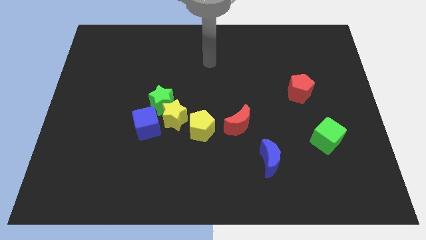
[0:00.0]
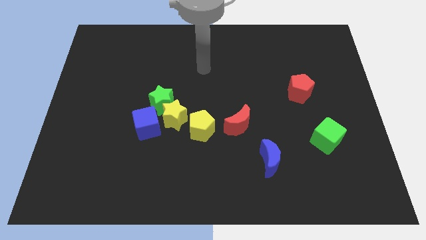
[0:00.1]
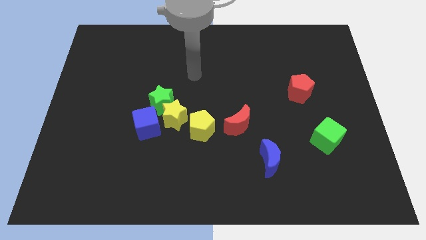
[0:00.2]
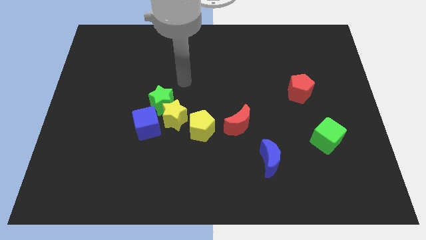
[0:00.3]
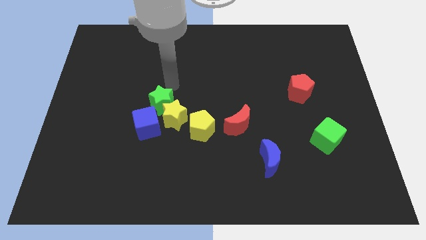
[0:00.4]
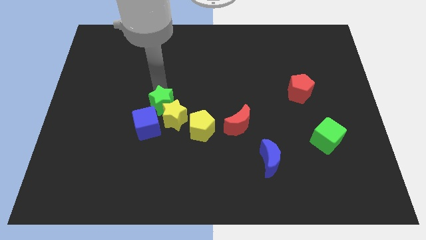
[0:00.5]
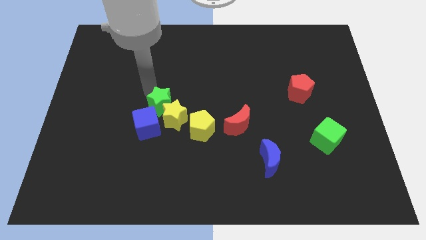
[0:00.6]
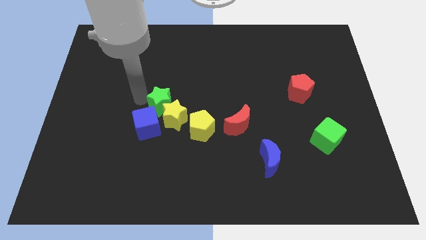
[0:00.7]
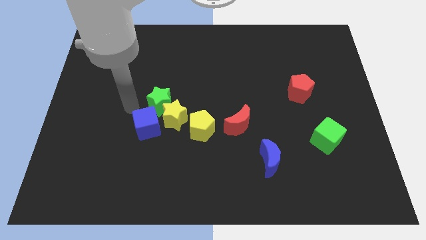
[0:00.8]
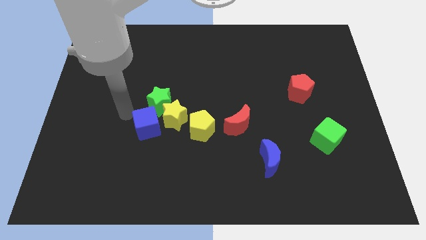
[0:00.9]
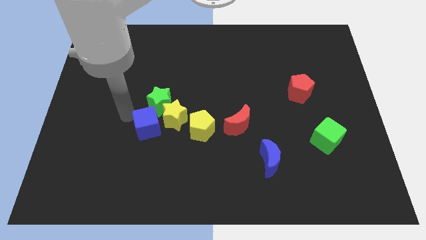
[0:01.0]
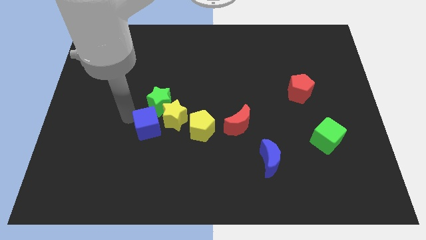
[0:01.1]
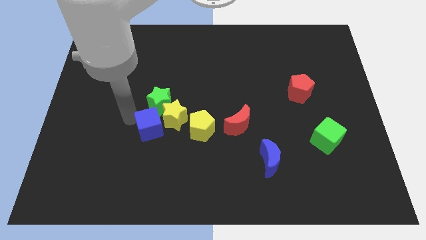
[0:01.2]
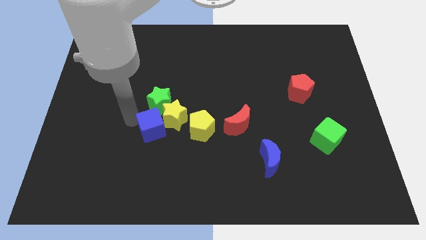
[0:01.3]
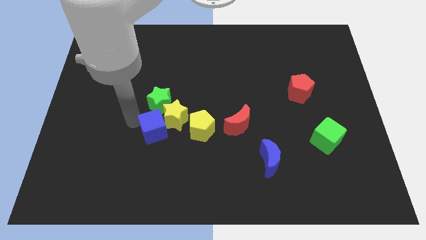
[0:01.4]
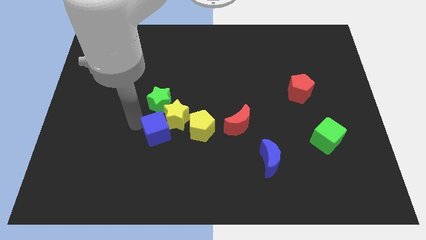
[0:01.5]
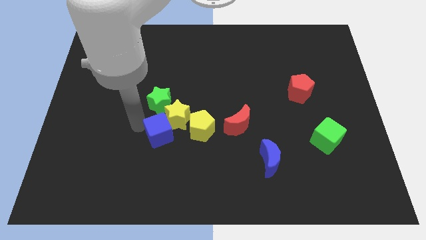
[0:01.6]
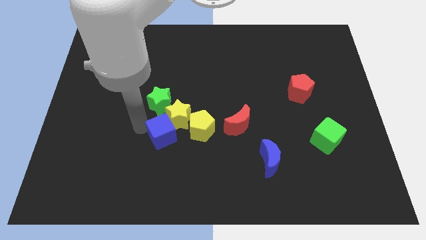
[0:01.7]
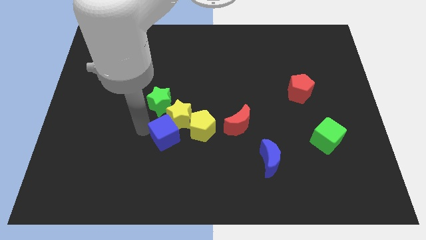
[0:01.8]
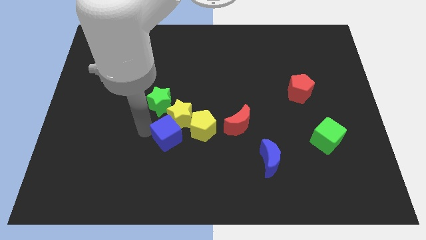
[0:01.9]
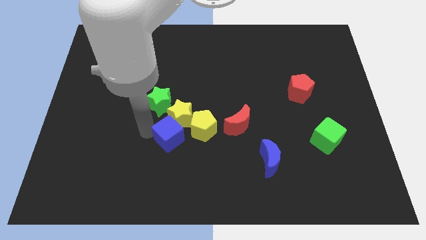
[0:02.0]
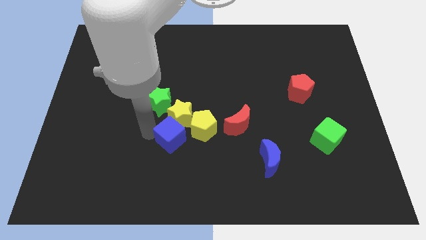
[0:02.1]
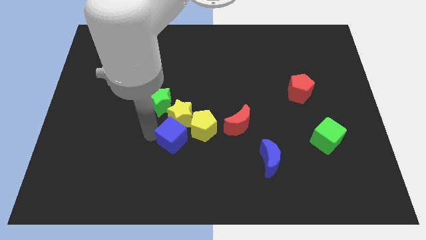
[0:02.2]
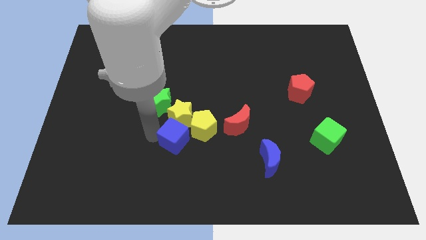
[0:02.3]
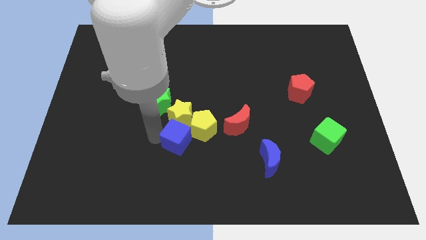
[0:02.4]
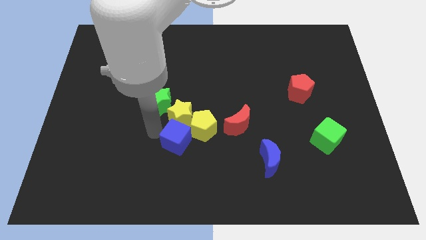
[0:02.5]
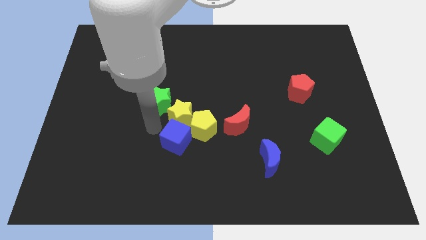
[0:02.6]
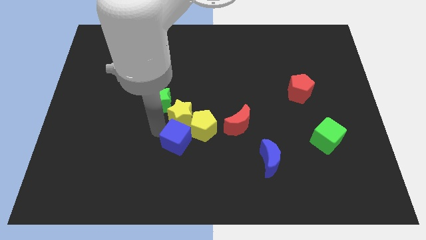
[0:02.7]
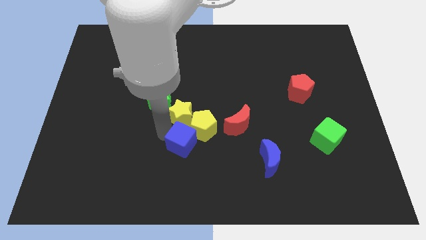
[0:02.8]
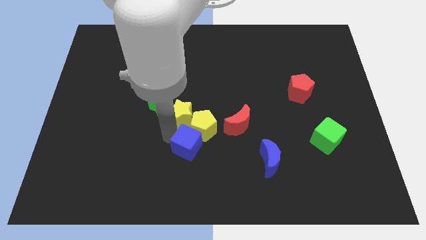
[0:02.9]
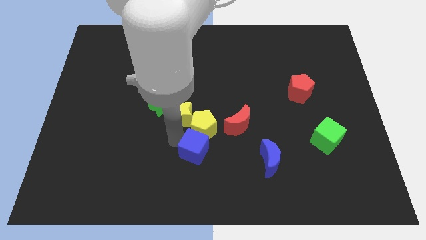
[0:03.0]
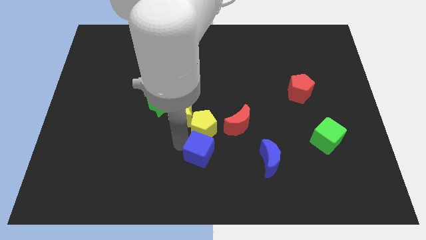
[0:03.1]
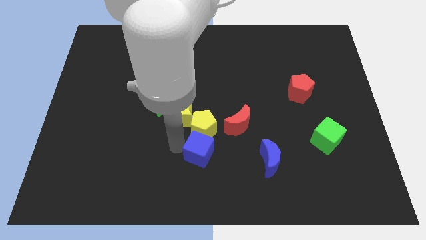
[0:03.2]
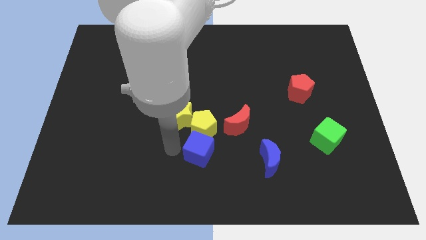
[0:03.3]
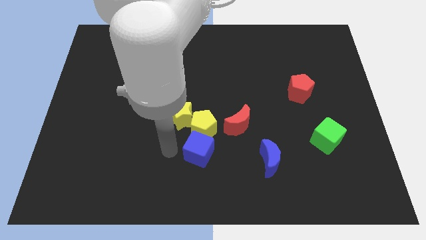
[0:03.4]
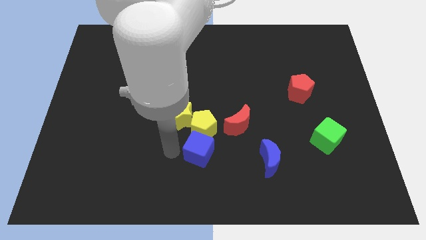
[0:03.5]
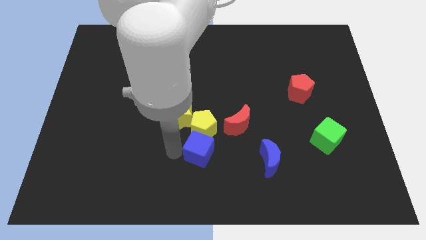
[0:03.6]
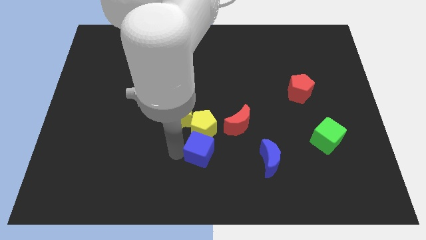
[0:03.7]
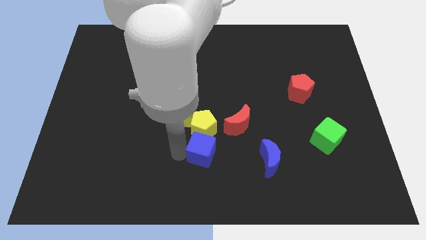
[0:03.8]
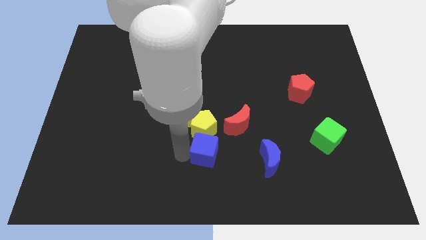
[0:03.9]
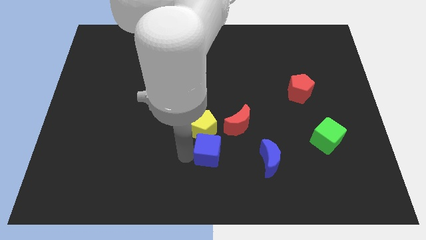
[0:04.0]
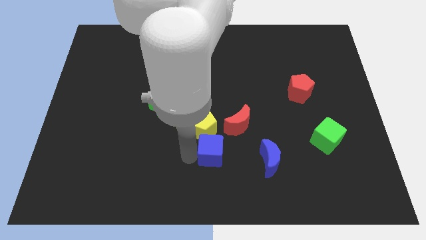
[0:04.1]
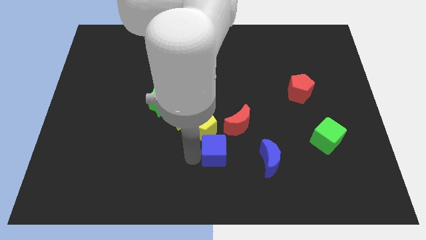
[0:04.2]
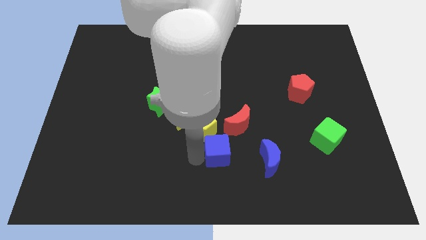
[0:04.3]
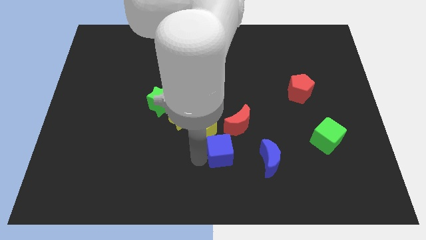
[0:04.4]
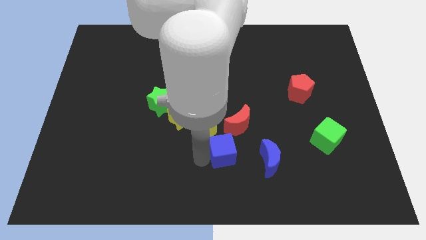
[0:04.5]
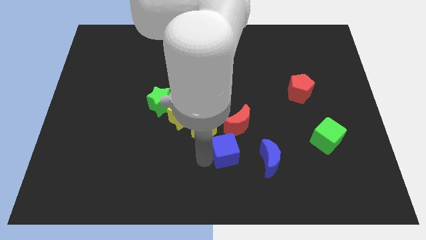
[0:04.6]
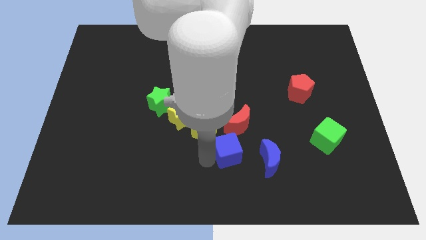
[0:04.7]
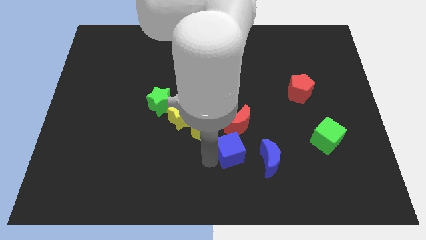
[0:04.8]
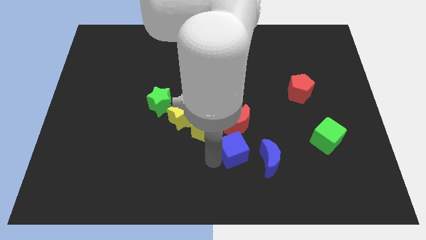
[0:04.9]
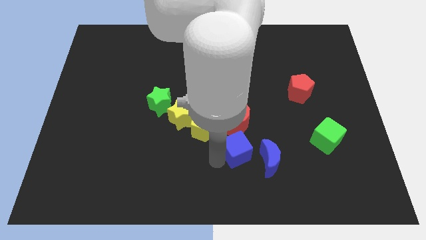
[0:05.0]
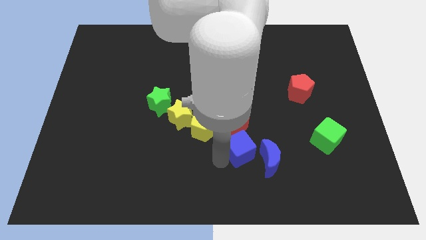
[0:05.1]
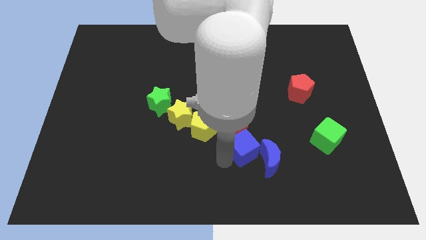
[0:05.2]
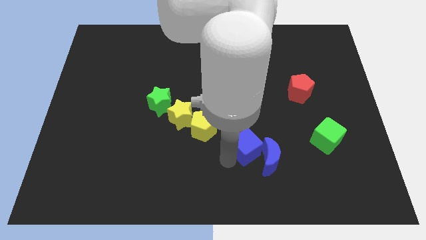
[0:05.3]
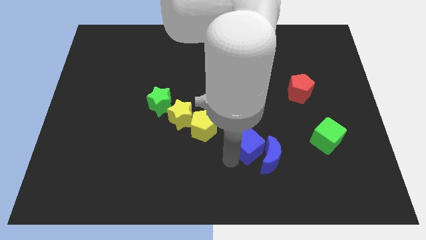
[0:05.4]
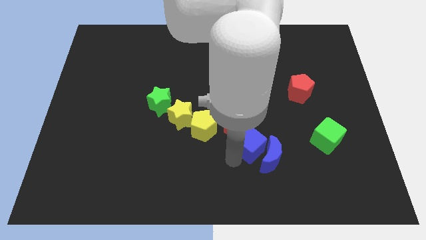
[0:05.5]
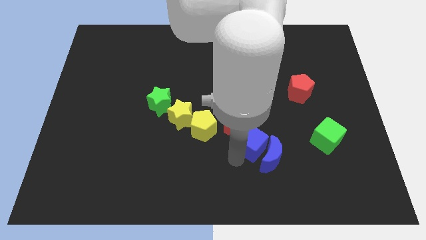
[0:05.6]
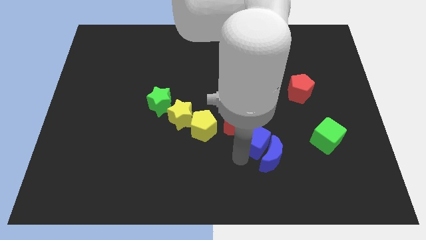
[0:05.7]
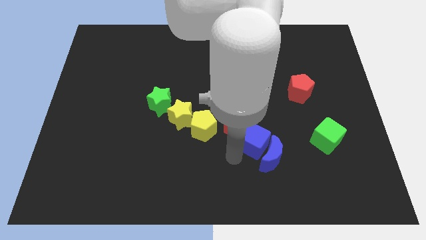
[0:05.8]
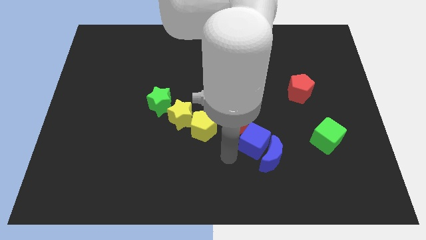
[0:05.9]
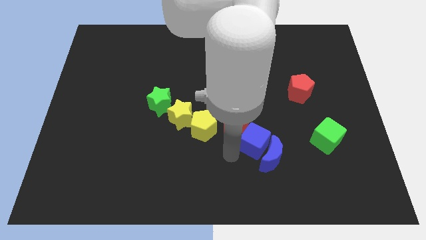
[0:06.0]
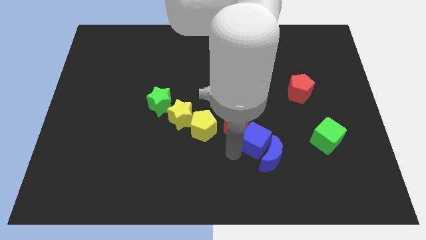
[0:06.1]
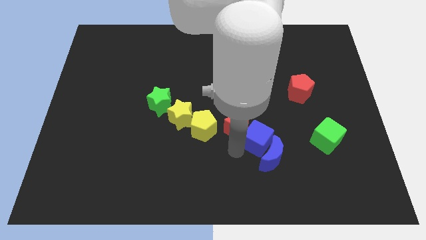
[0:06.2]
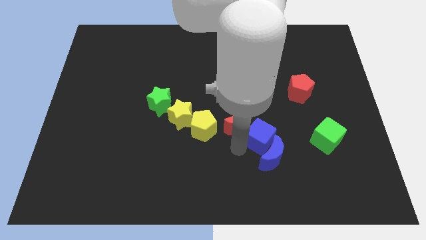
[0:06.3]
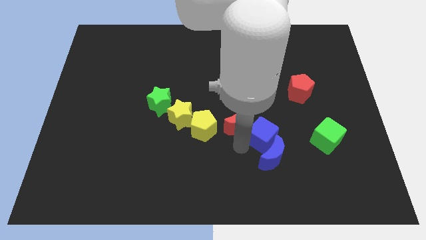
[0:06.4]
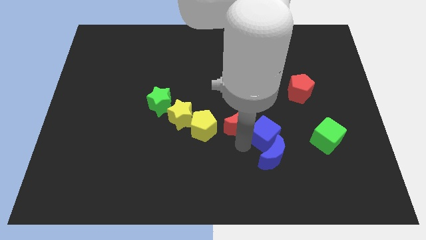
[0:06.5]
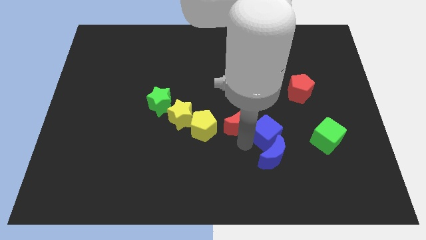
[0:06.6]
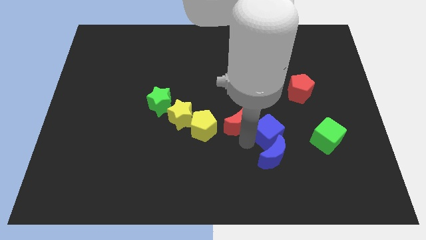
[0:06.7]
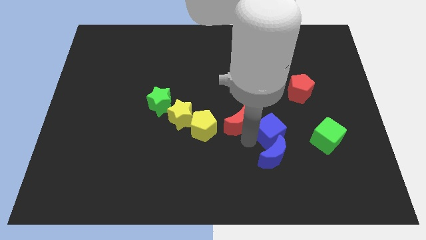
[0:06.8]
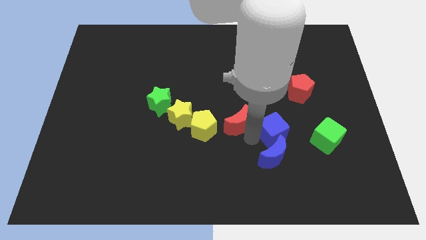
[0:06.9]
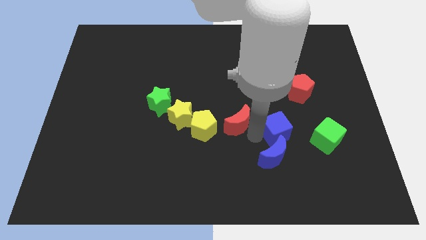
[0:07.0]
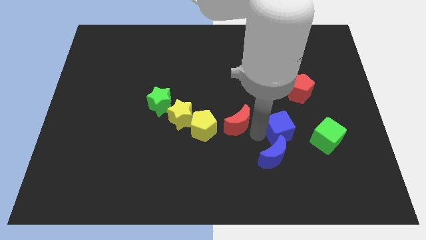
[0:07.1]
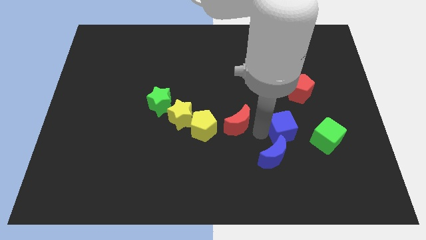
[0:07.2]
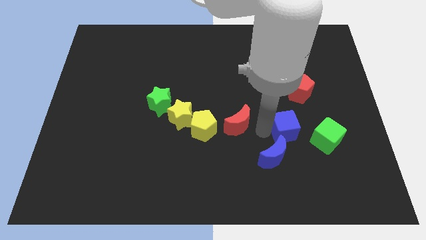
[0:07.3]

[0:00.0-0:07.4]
put the blue cube to the bottom side of the red pentagon

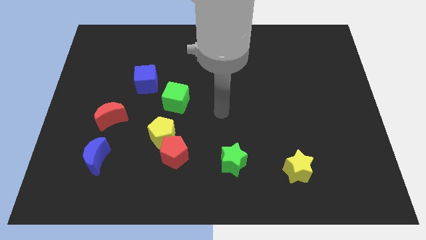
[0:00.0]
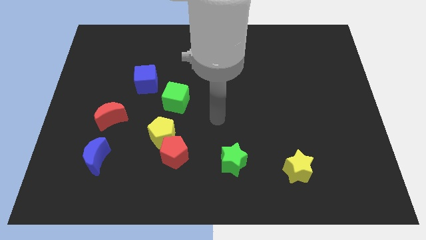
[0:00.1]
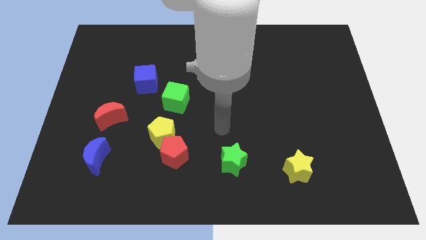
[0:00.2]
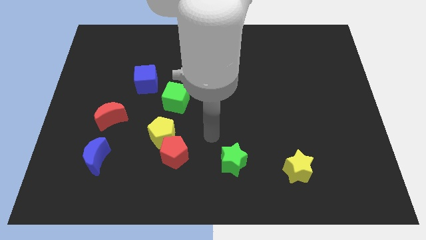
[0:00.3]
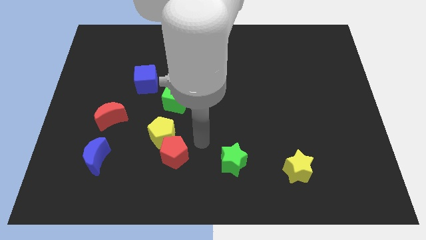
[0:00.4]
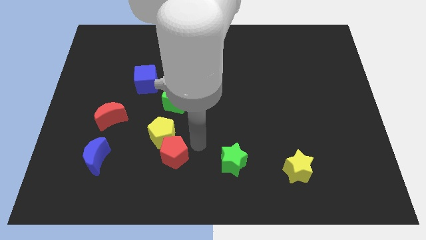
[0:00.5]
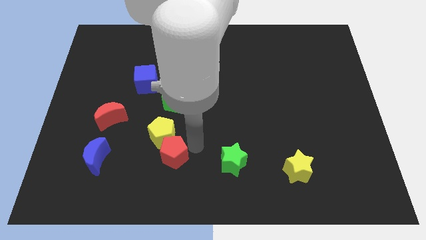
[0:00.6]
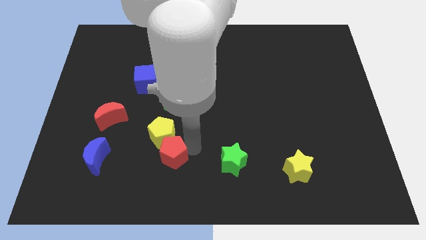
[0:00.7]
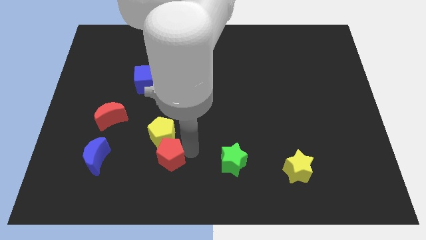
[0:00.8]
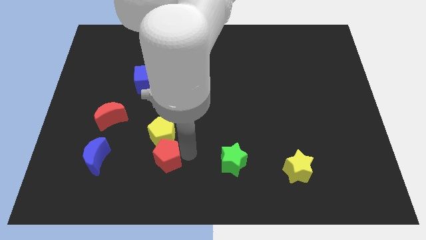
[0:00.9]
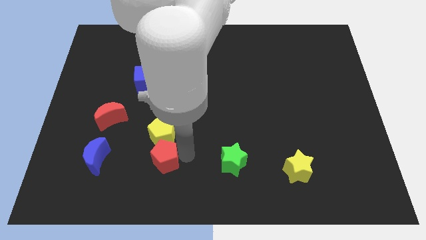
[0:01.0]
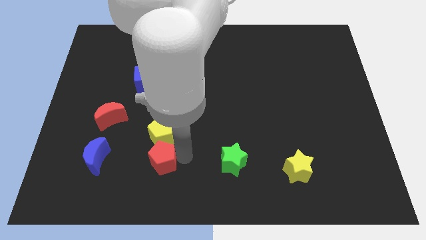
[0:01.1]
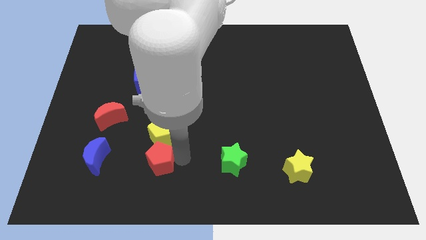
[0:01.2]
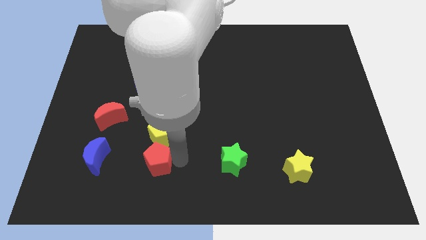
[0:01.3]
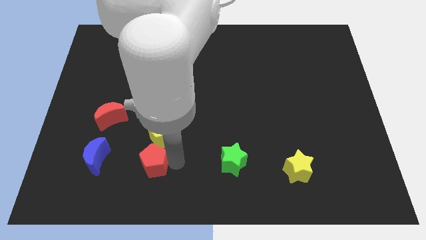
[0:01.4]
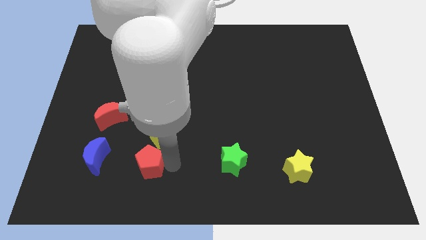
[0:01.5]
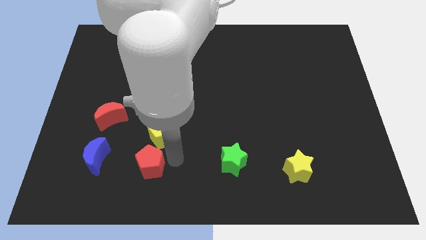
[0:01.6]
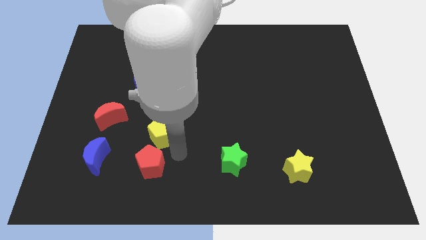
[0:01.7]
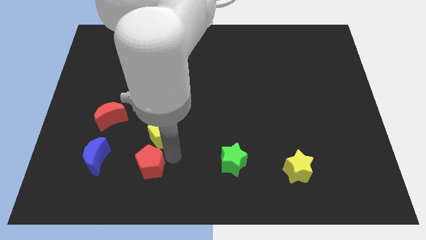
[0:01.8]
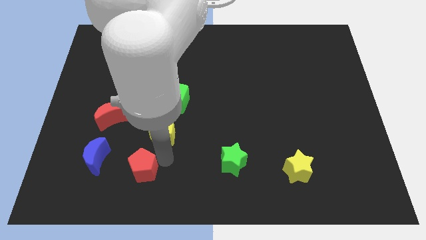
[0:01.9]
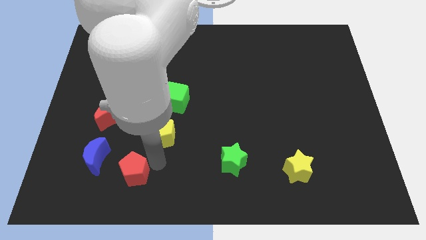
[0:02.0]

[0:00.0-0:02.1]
push the red pentagon to the bottom right side of the blue moon
